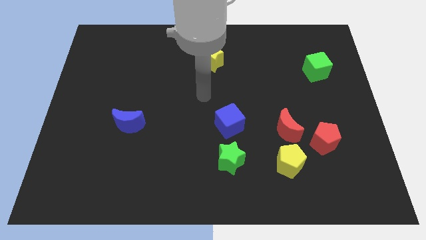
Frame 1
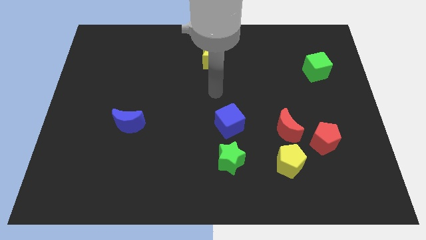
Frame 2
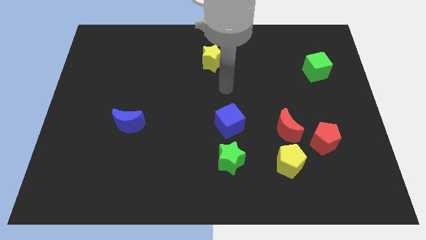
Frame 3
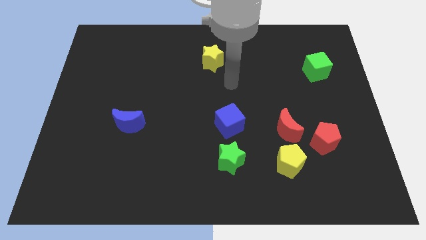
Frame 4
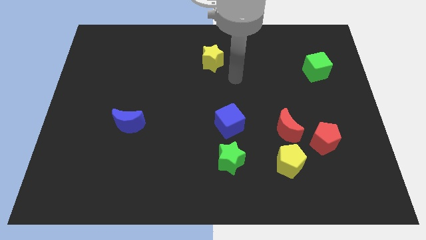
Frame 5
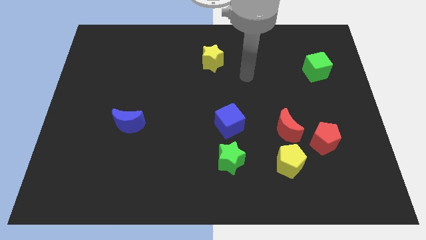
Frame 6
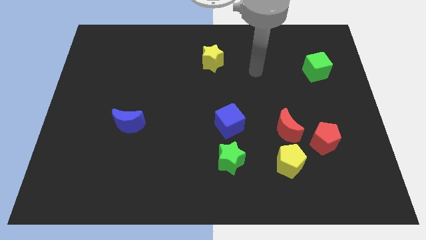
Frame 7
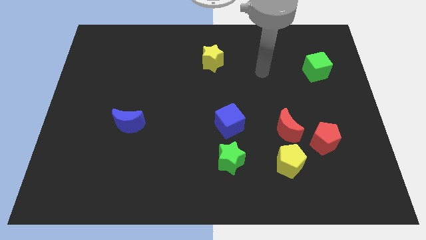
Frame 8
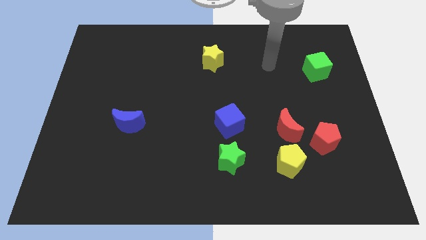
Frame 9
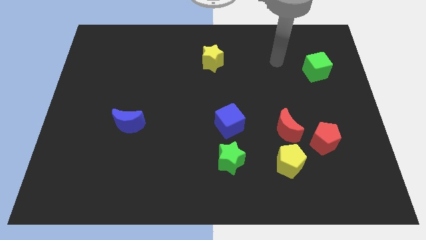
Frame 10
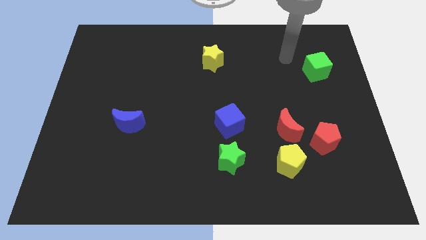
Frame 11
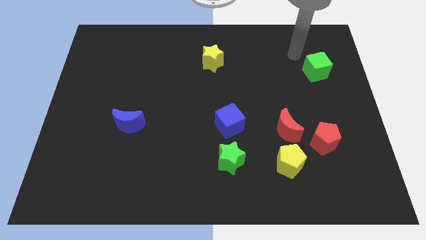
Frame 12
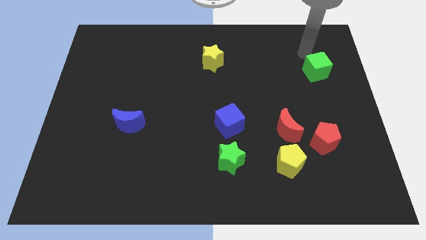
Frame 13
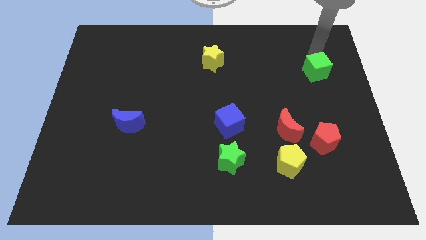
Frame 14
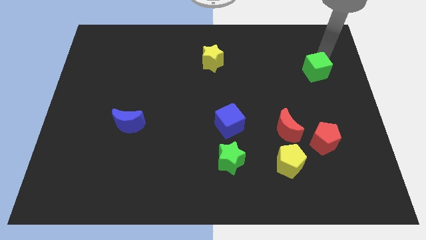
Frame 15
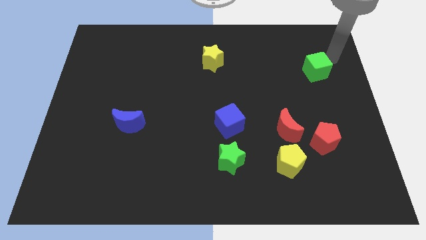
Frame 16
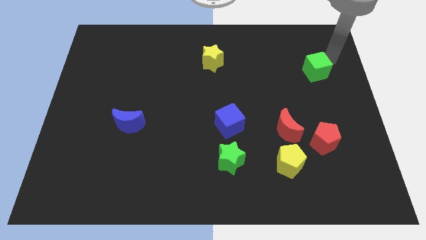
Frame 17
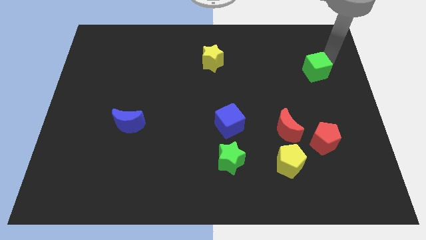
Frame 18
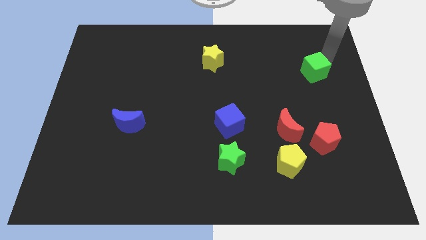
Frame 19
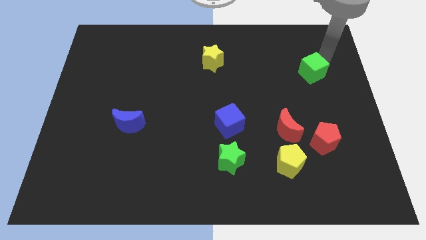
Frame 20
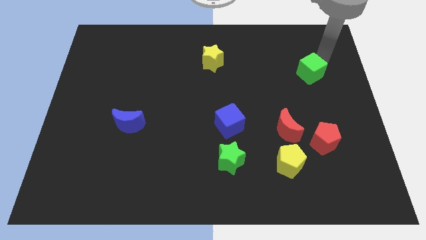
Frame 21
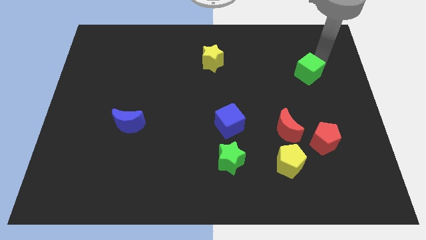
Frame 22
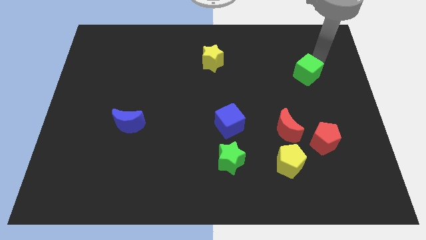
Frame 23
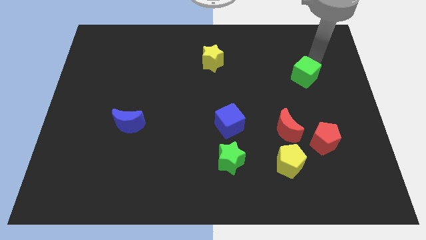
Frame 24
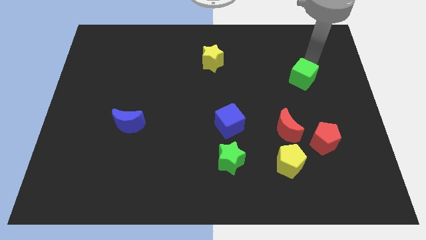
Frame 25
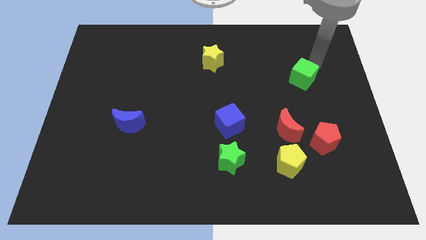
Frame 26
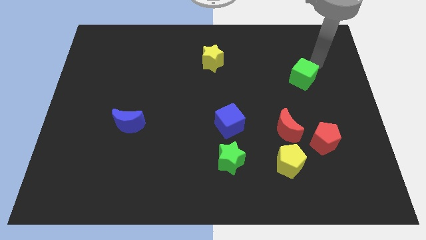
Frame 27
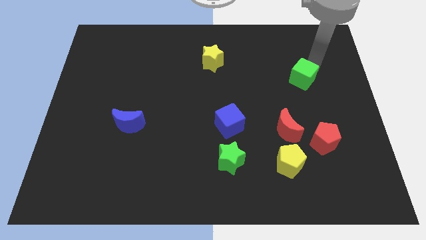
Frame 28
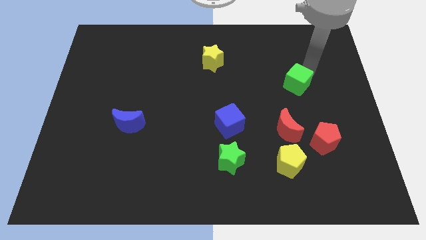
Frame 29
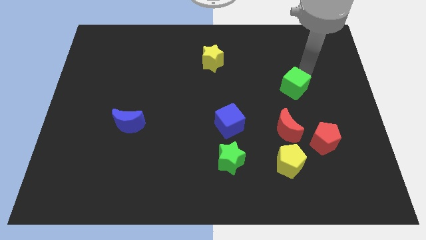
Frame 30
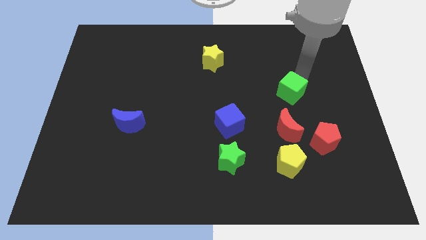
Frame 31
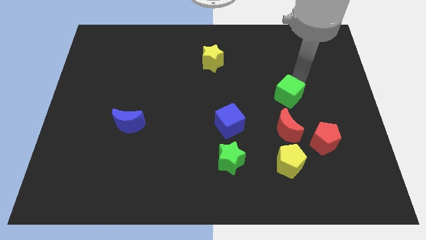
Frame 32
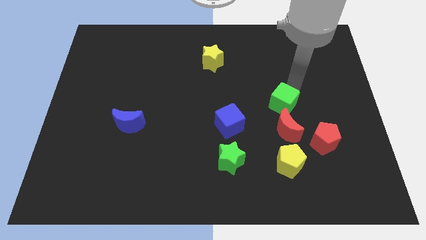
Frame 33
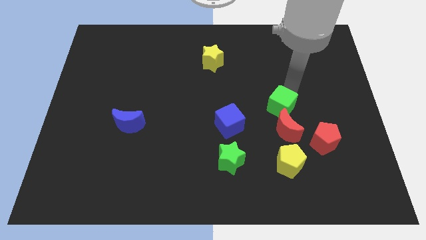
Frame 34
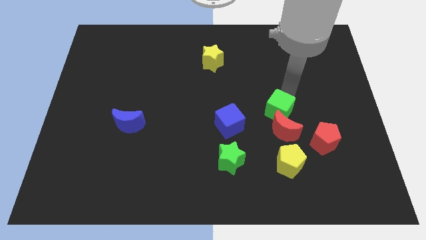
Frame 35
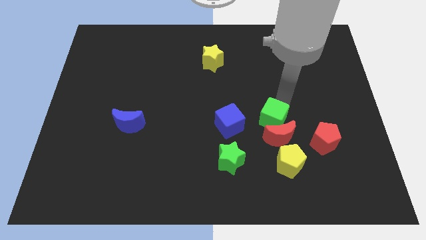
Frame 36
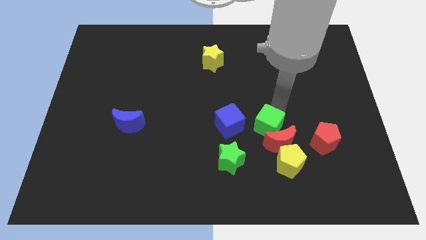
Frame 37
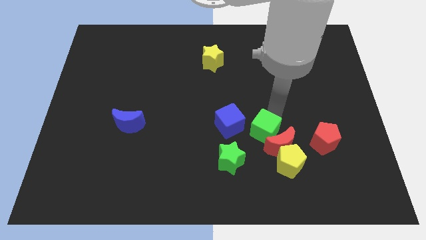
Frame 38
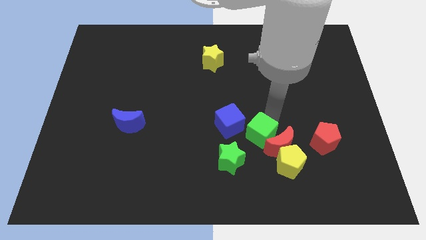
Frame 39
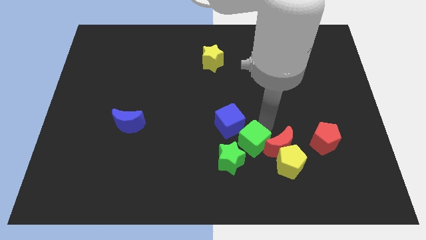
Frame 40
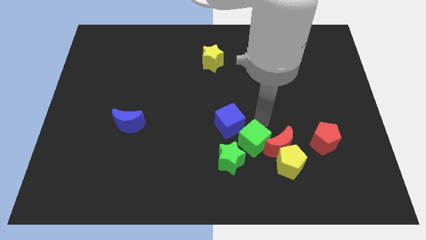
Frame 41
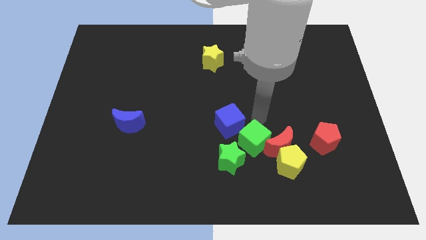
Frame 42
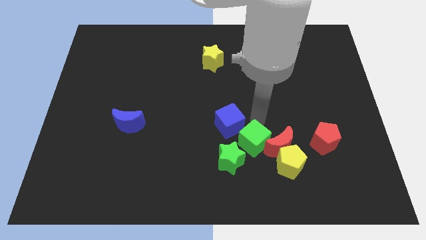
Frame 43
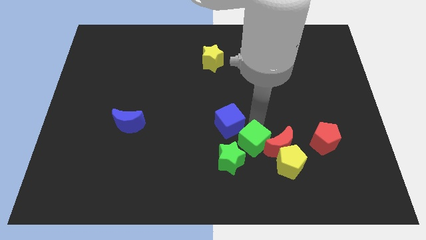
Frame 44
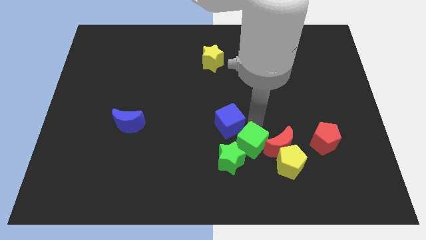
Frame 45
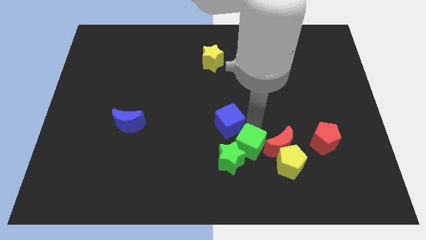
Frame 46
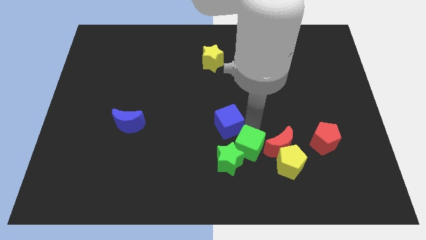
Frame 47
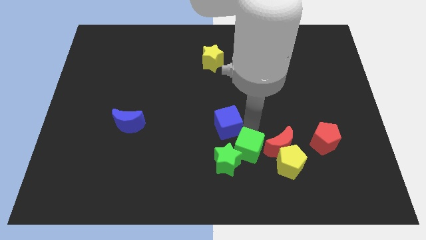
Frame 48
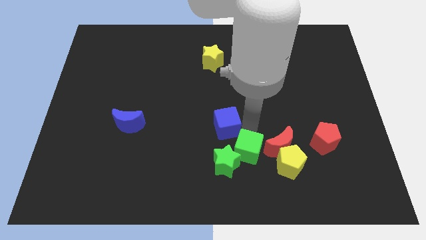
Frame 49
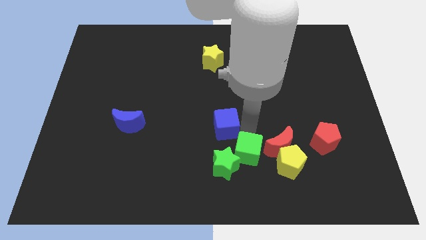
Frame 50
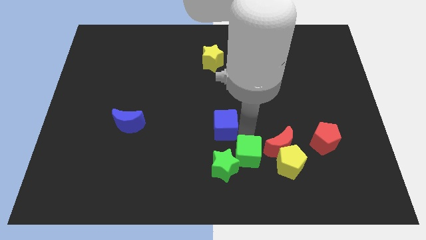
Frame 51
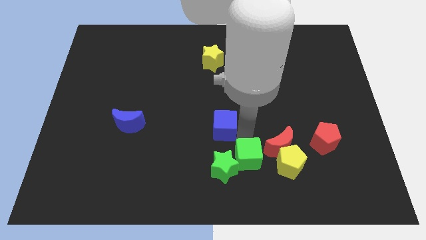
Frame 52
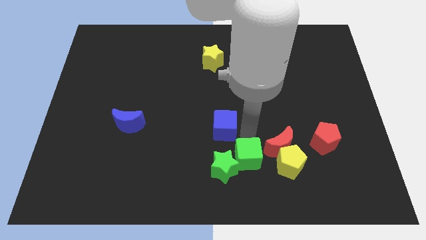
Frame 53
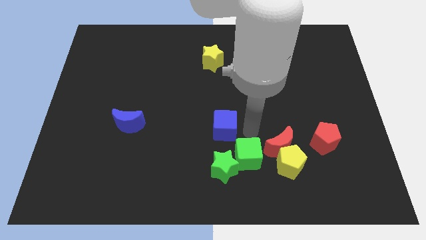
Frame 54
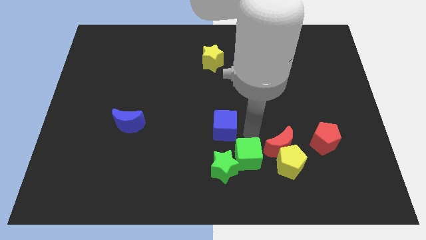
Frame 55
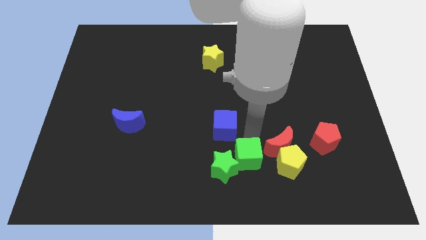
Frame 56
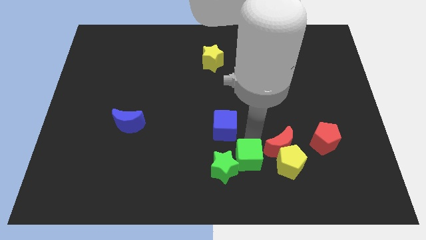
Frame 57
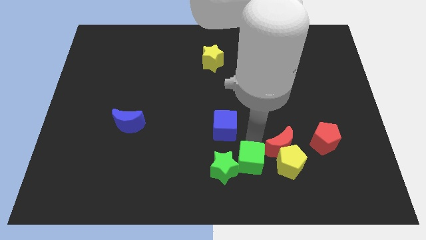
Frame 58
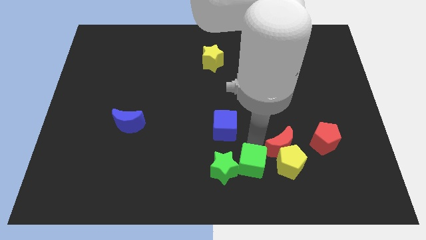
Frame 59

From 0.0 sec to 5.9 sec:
put the green cube to the bottom side
